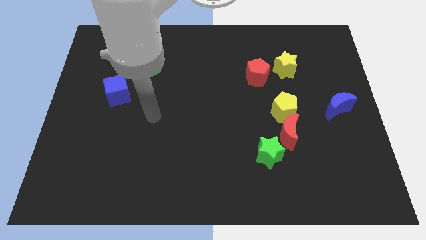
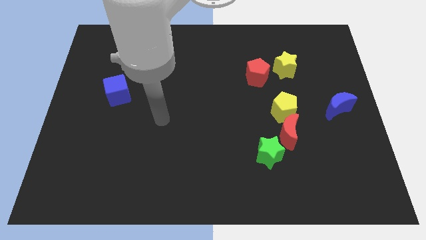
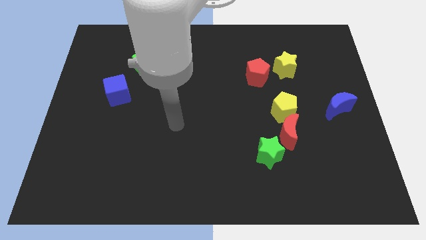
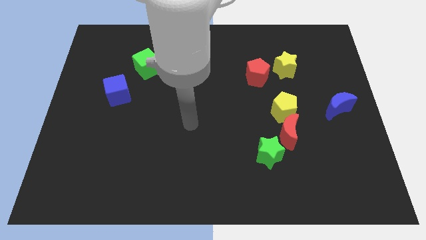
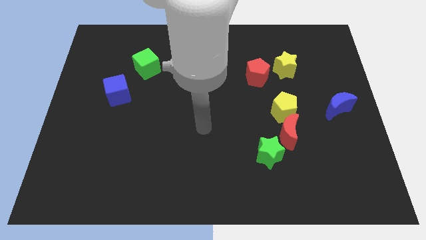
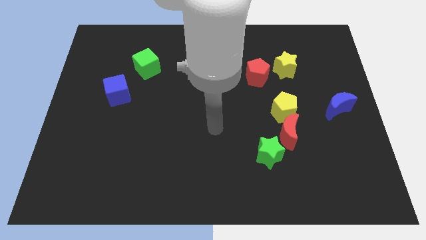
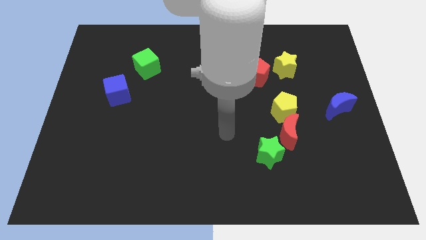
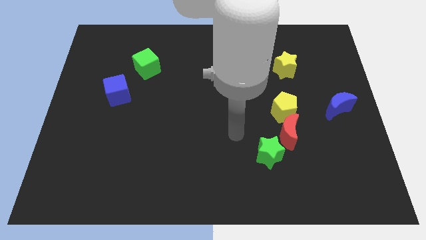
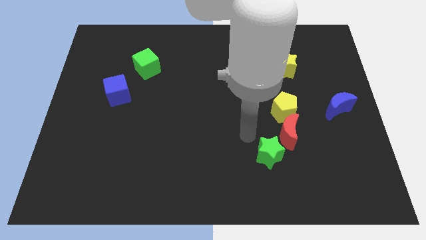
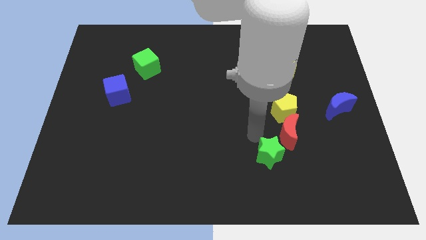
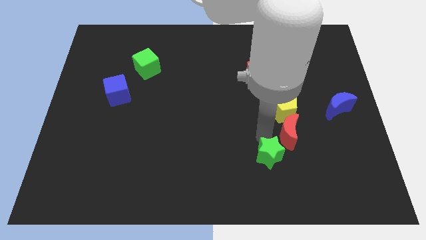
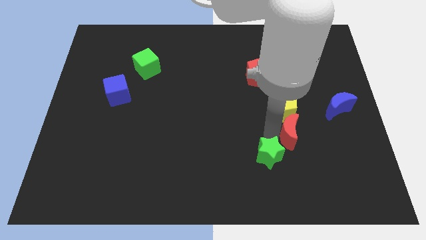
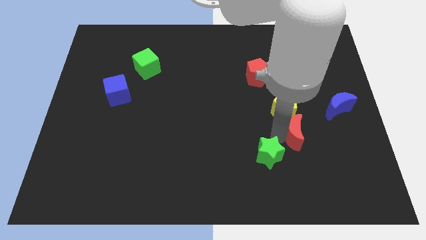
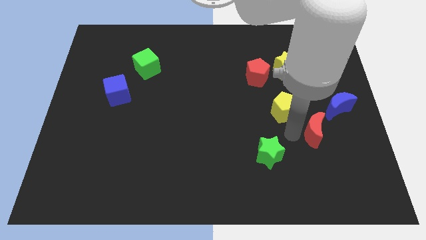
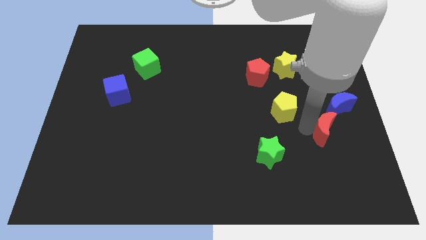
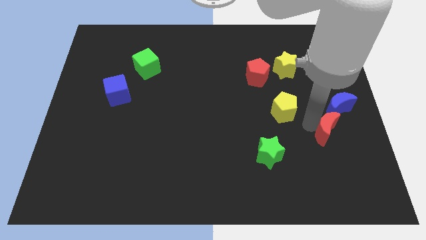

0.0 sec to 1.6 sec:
separate the yellow pentagon from the red moon

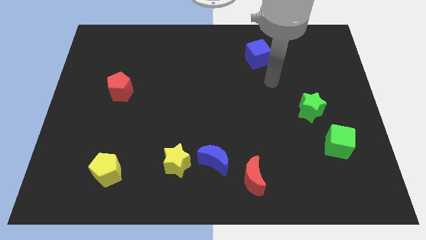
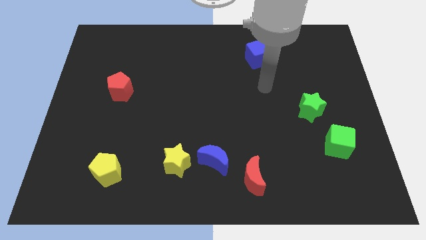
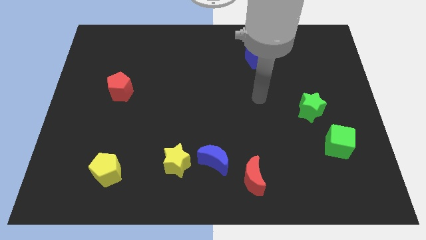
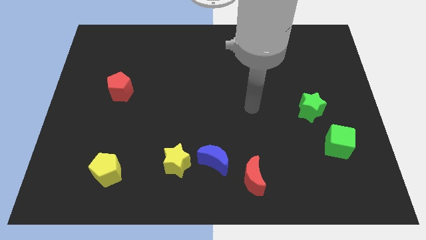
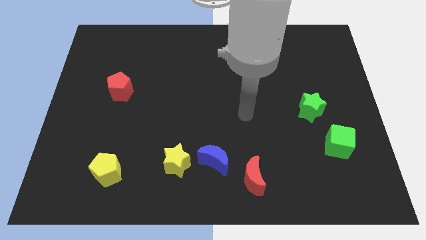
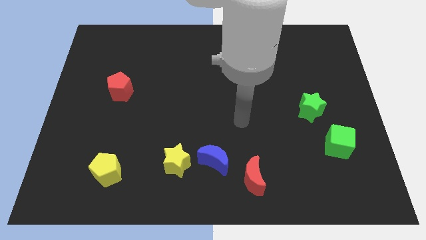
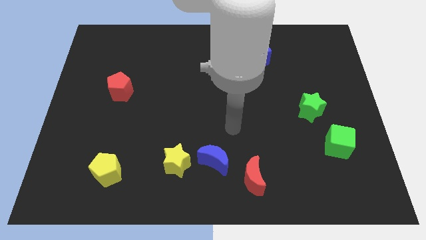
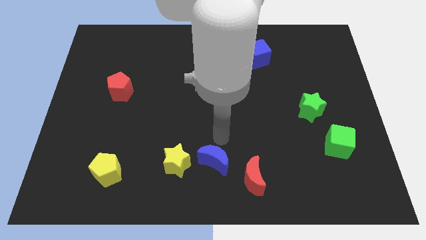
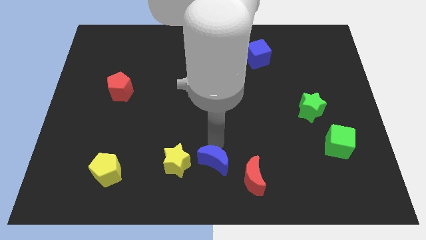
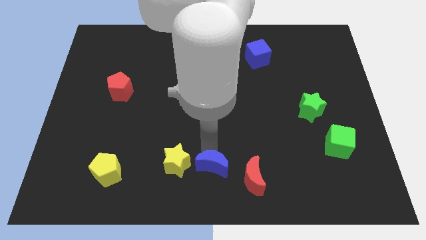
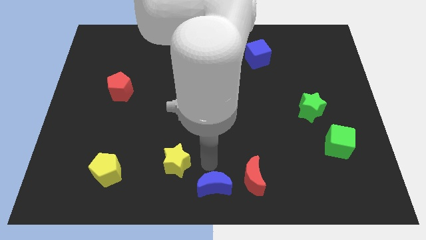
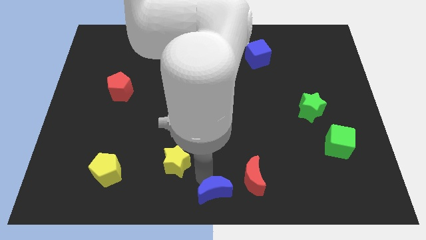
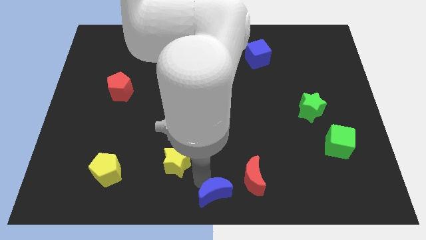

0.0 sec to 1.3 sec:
separate the yellow star from the blue moon

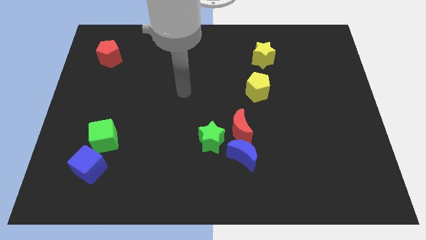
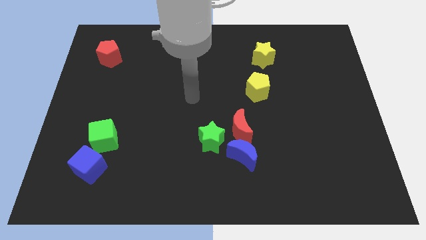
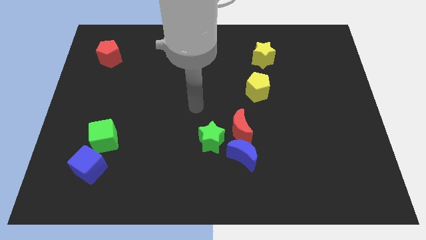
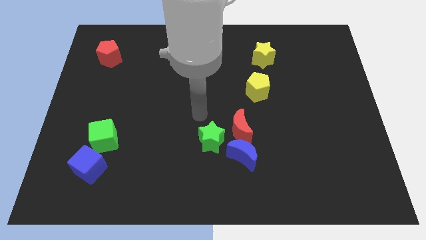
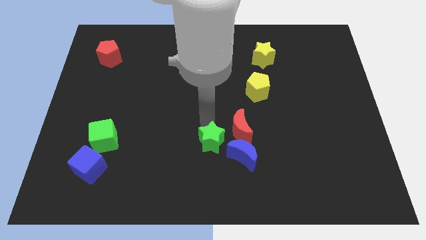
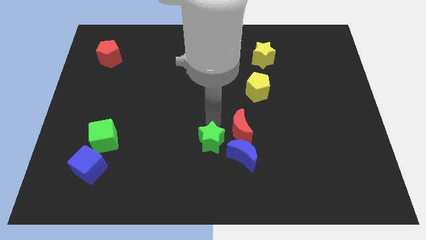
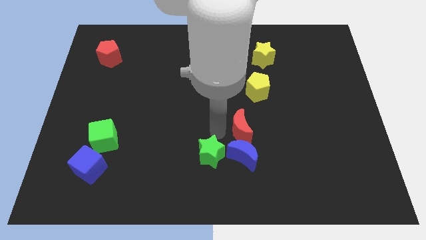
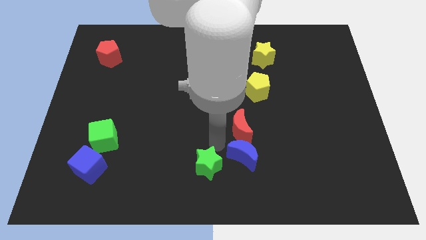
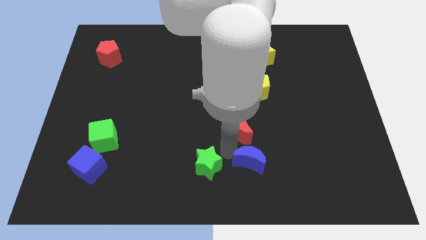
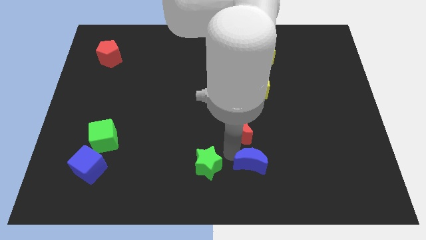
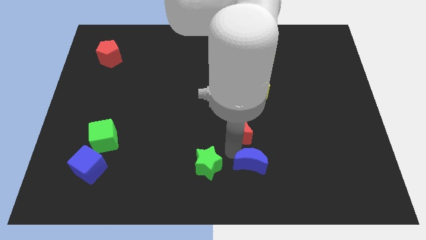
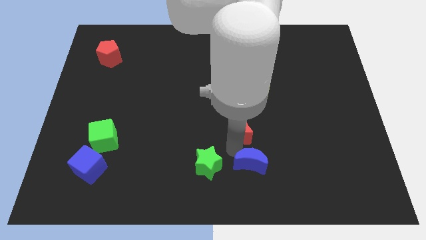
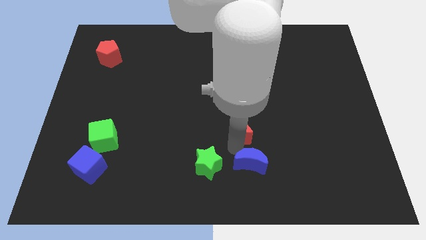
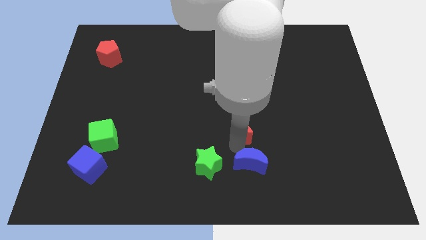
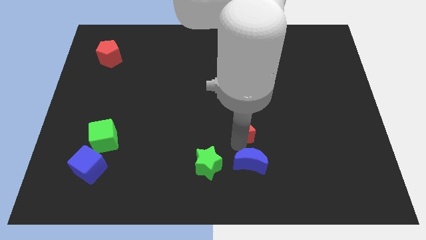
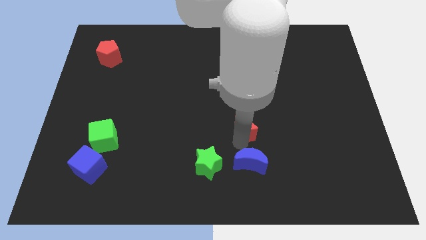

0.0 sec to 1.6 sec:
separate the red moon from the blue moon and green star

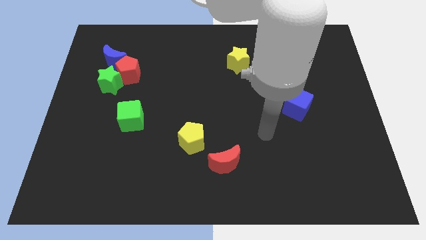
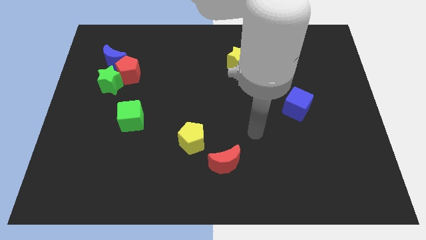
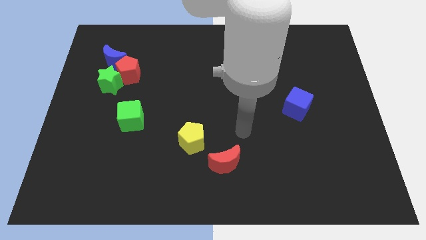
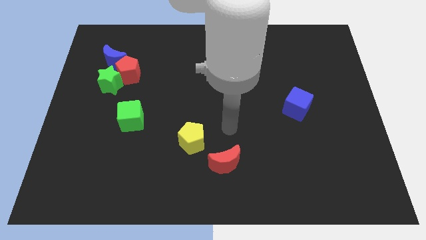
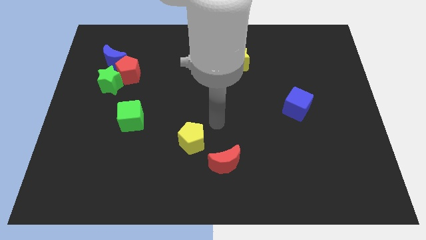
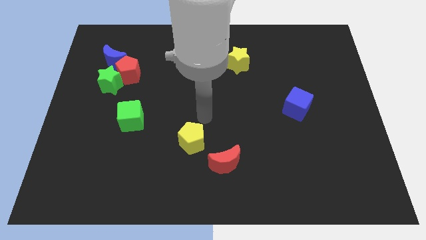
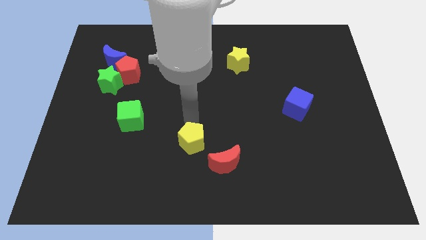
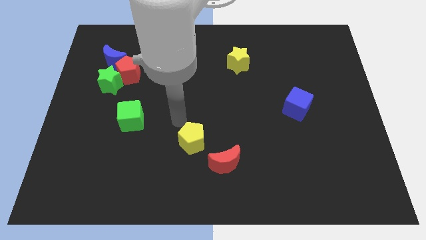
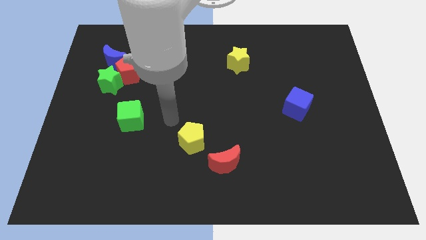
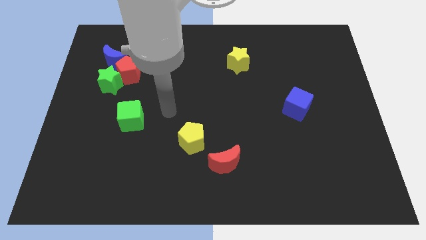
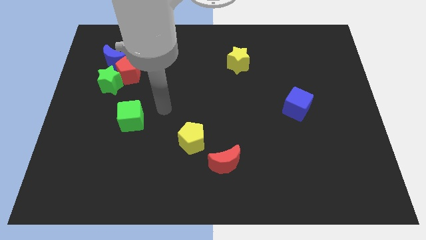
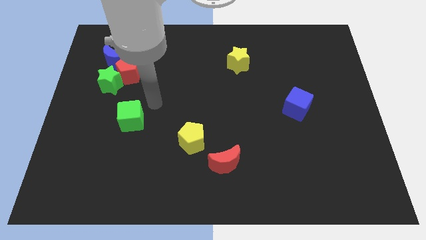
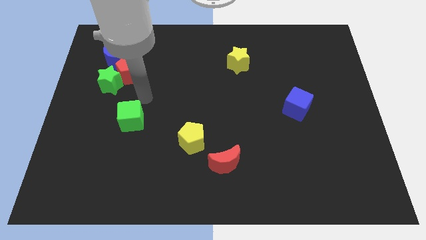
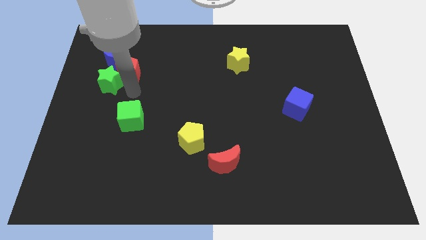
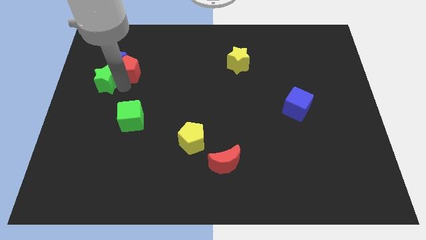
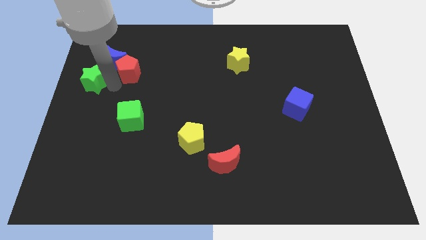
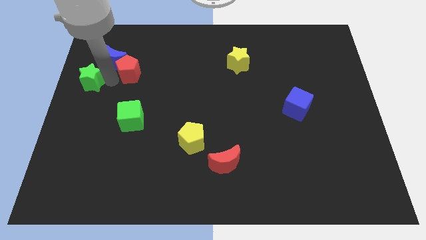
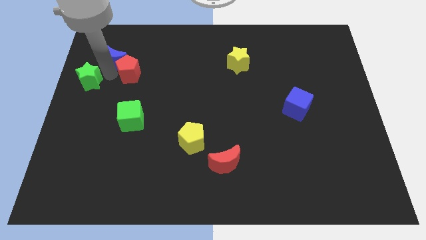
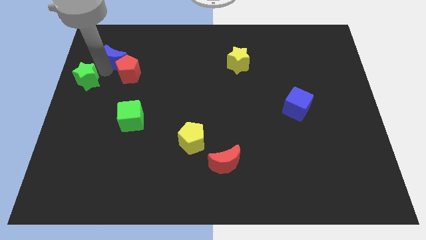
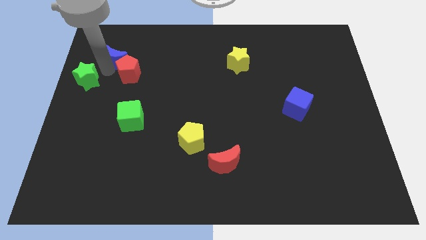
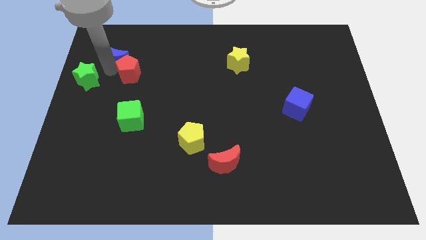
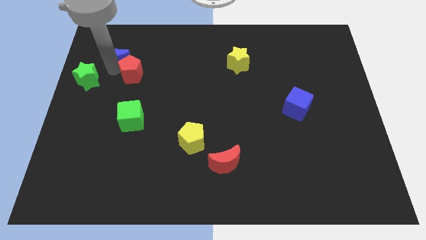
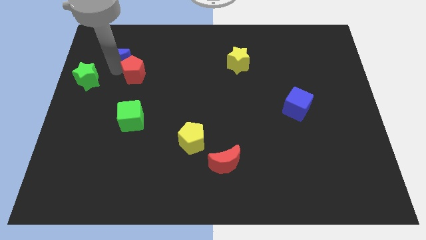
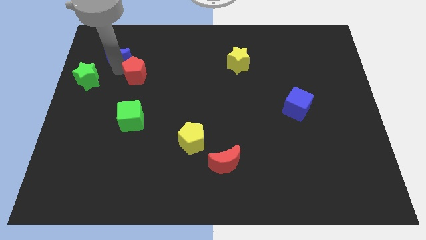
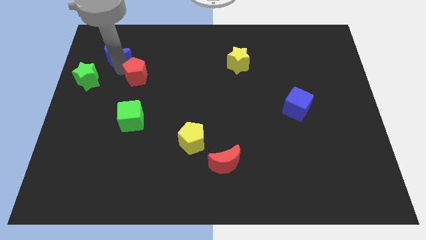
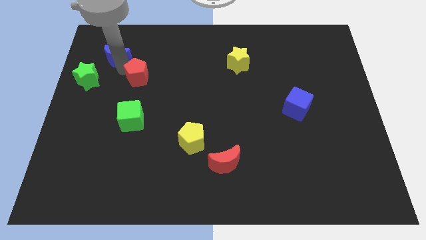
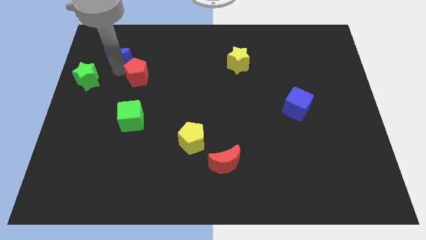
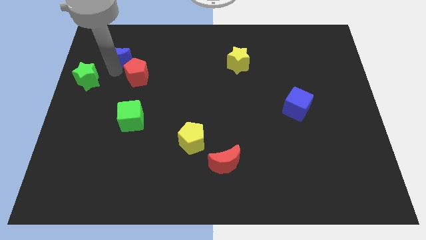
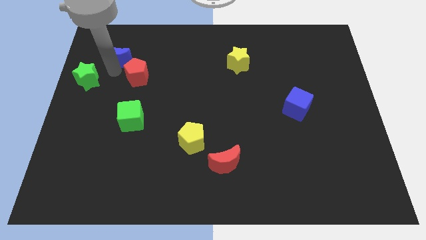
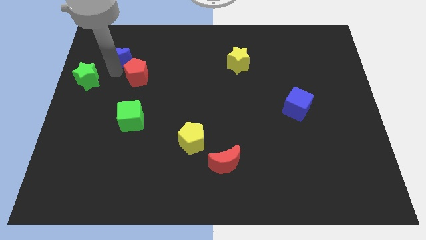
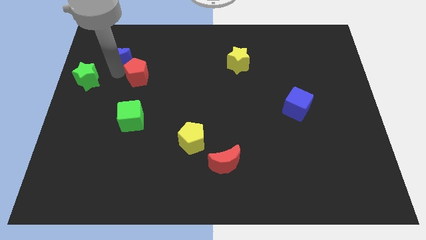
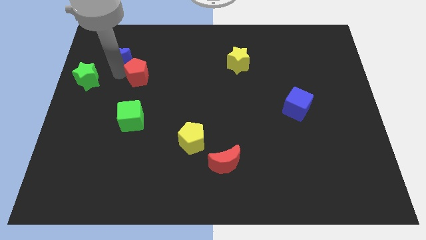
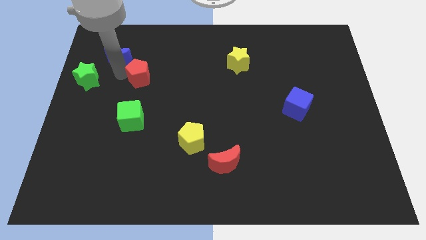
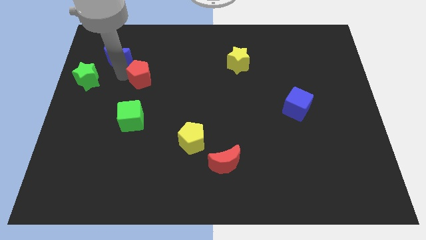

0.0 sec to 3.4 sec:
move the red pentagon away from the green star and blue moon

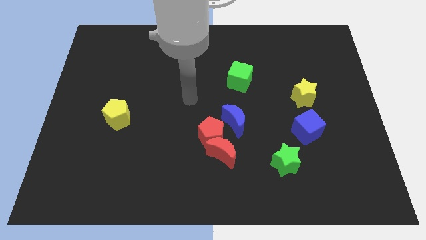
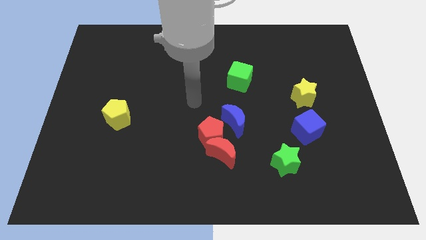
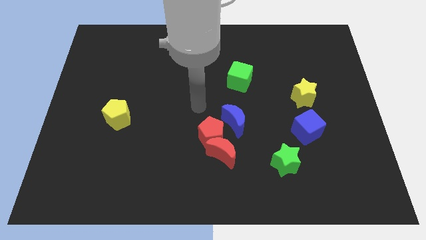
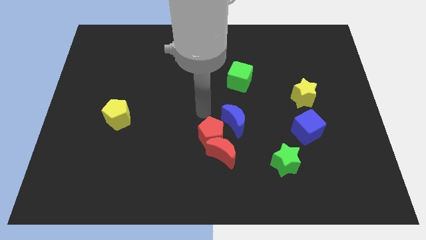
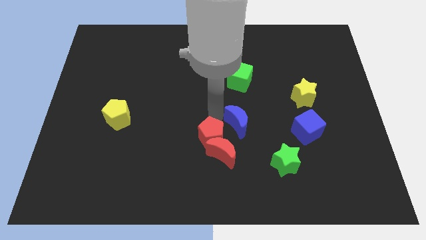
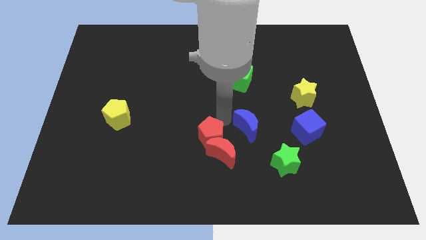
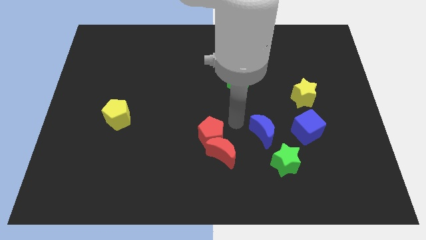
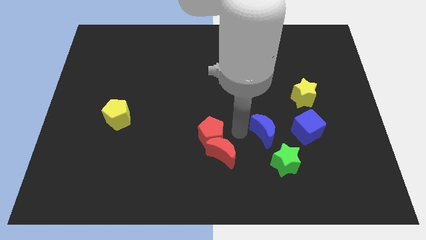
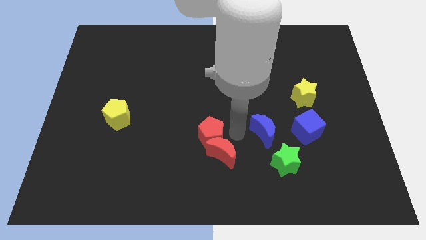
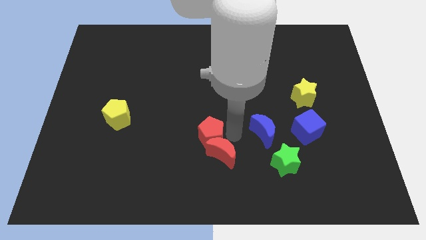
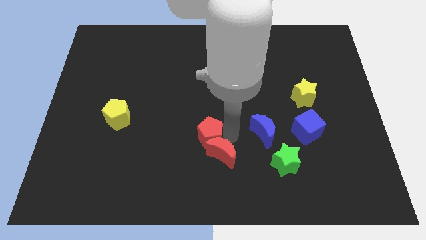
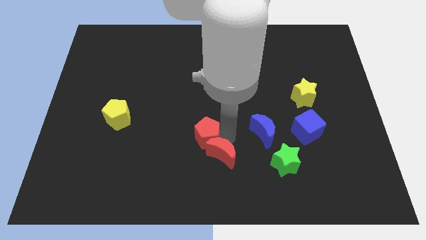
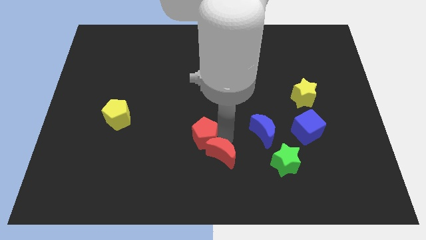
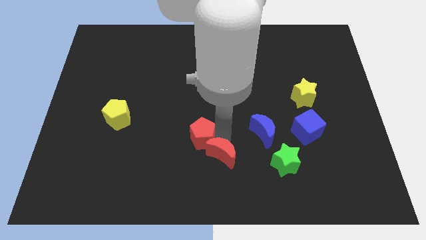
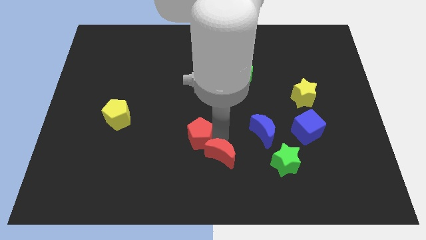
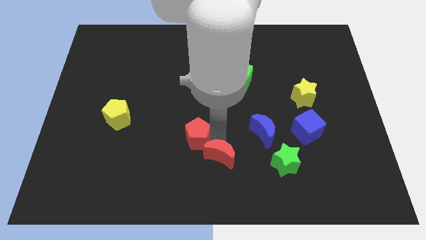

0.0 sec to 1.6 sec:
pull the red pentagon apart from the red moon and blue moon
